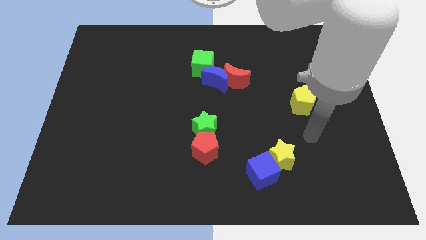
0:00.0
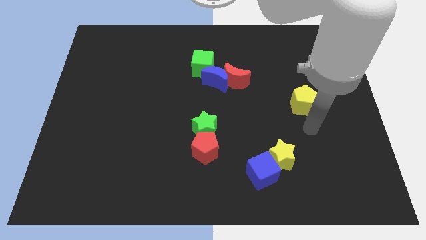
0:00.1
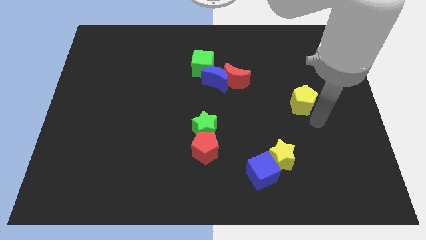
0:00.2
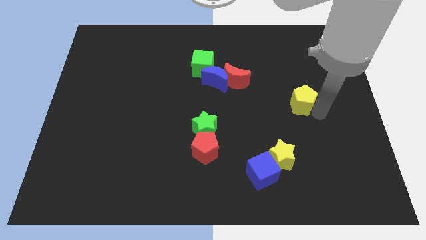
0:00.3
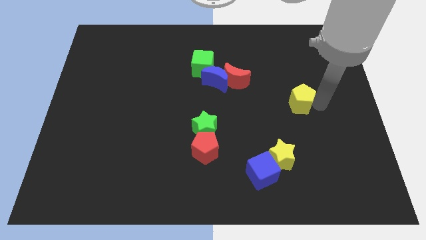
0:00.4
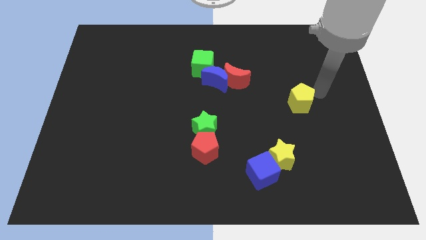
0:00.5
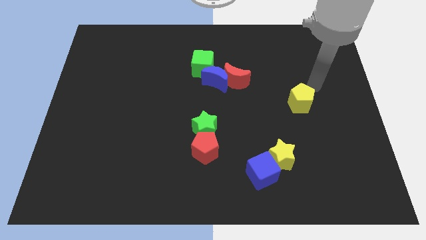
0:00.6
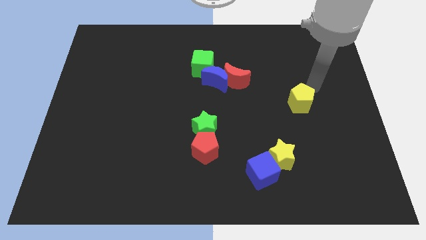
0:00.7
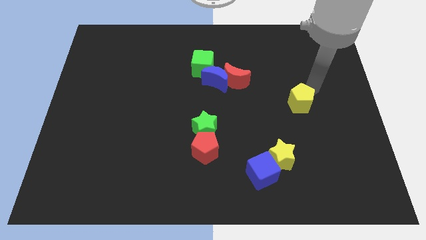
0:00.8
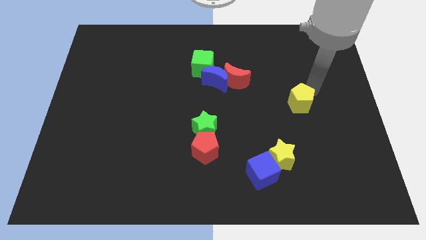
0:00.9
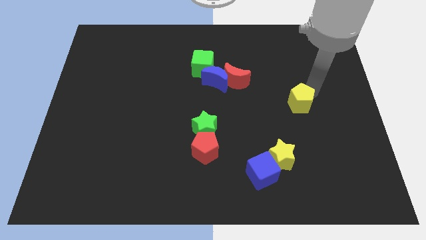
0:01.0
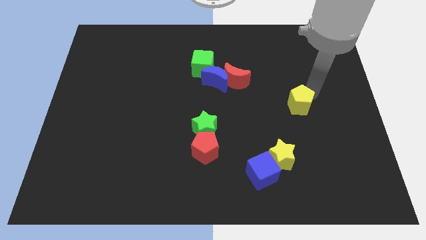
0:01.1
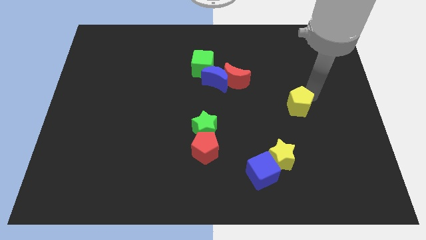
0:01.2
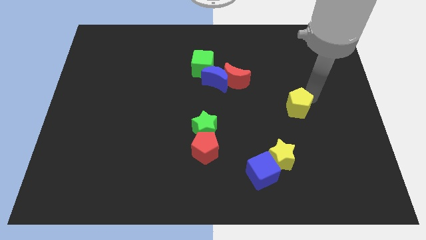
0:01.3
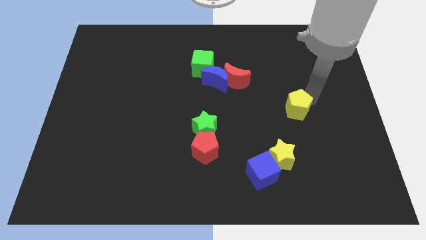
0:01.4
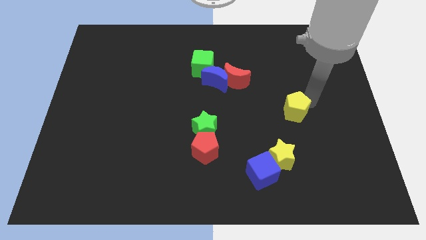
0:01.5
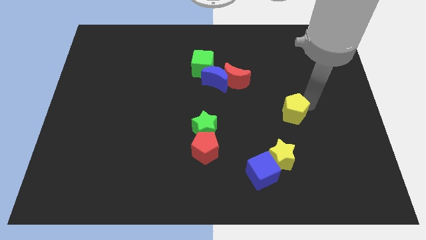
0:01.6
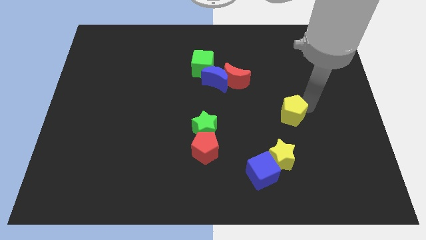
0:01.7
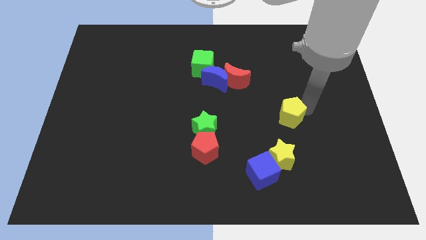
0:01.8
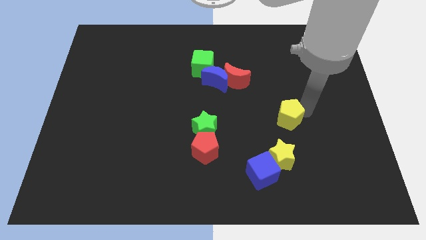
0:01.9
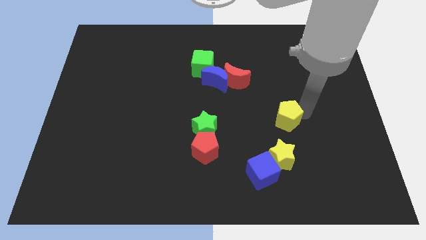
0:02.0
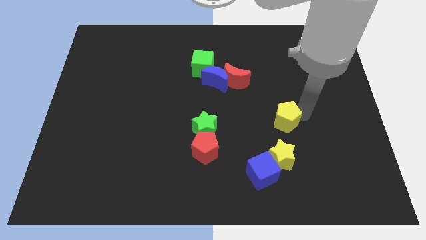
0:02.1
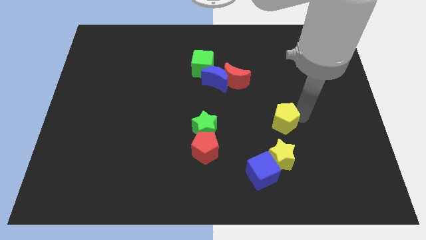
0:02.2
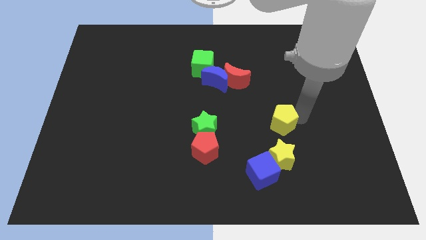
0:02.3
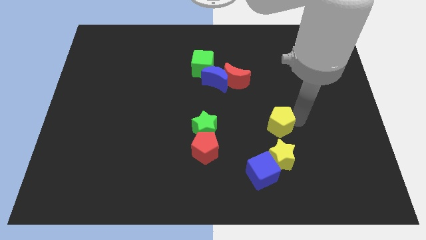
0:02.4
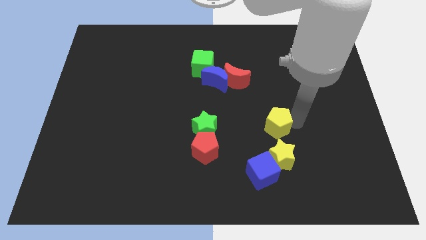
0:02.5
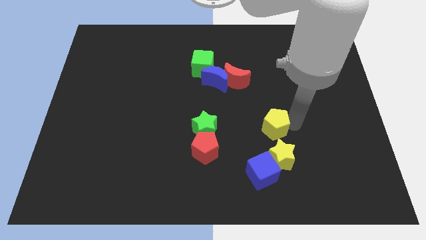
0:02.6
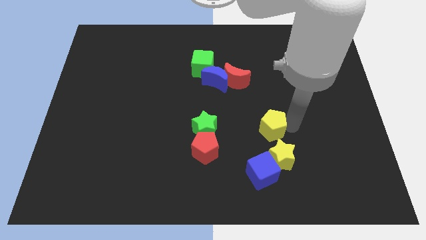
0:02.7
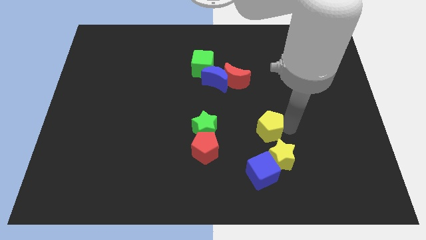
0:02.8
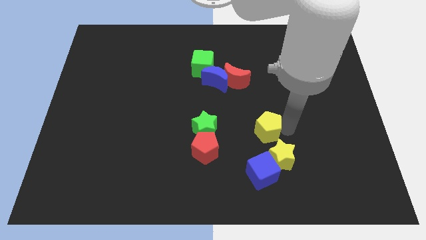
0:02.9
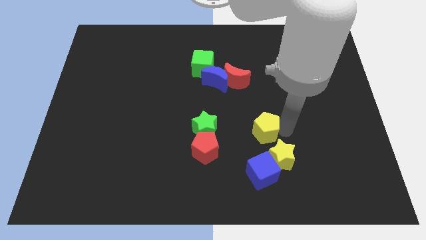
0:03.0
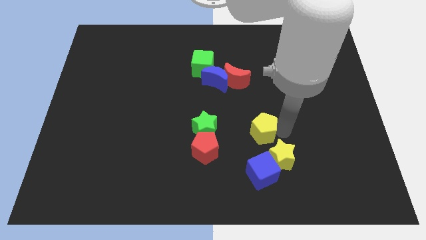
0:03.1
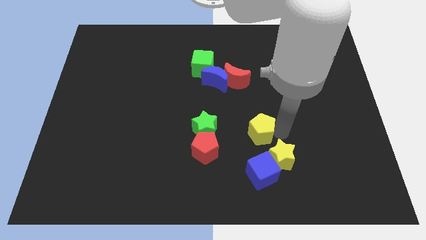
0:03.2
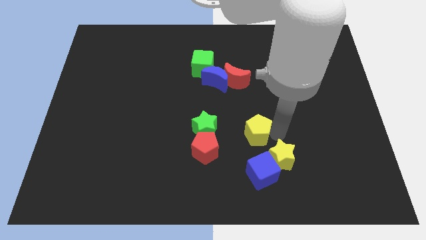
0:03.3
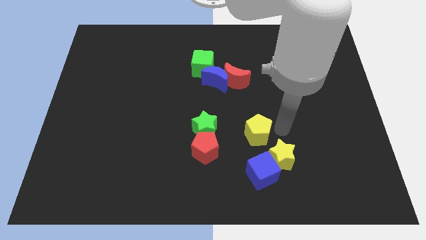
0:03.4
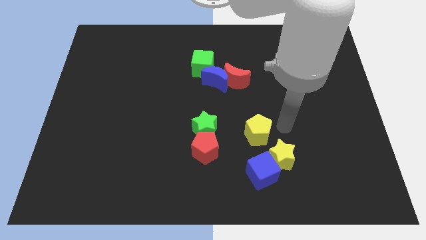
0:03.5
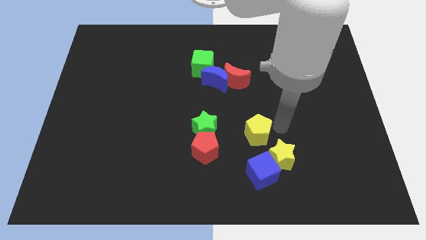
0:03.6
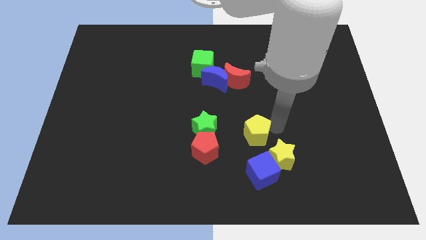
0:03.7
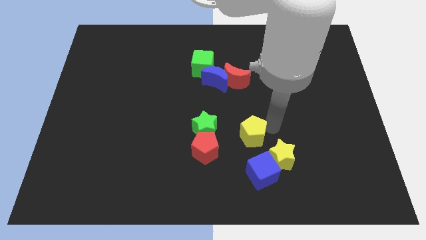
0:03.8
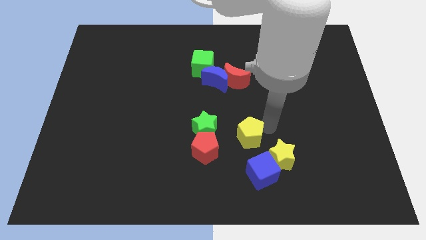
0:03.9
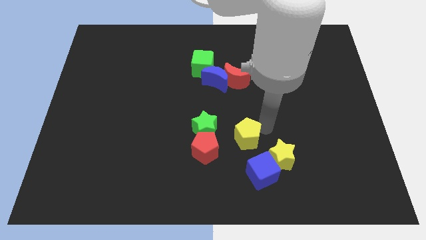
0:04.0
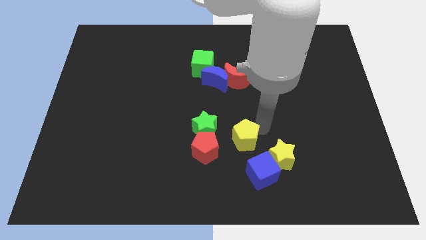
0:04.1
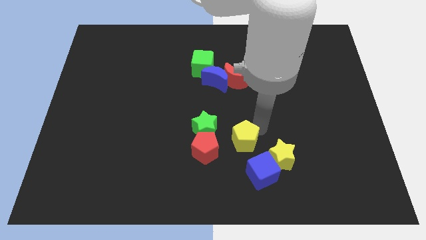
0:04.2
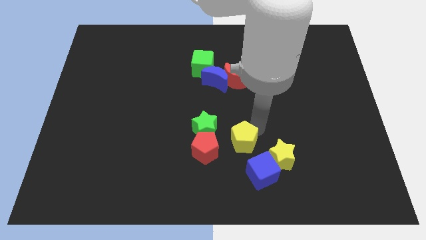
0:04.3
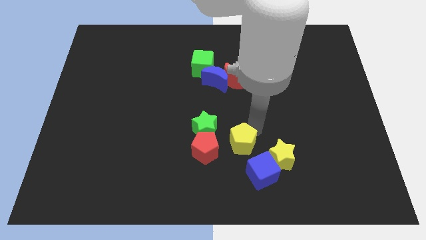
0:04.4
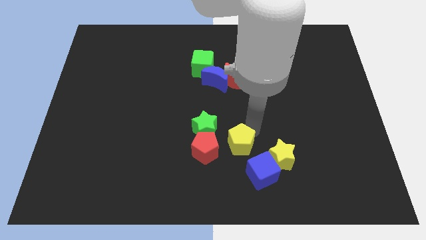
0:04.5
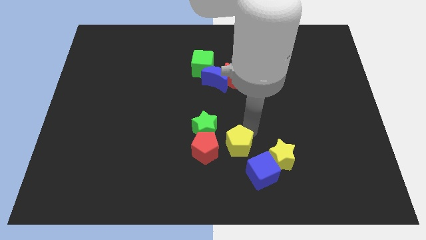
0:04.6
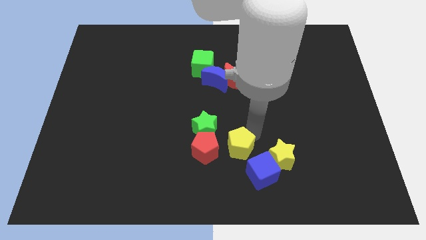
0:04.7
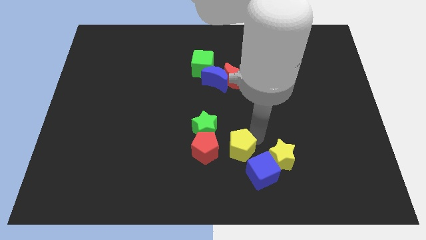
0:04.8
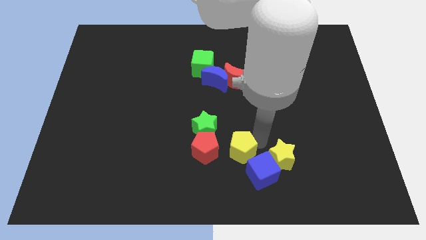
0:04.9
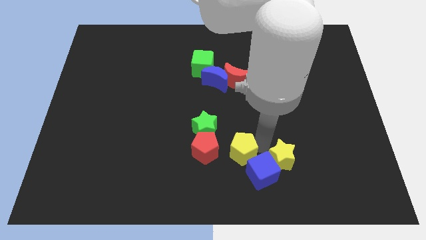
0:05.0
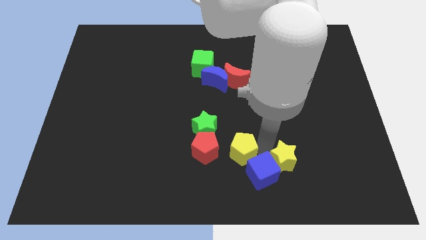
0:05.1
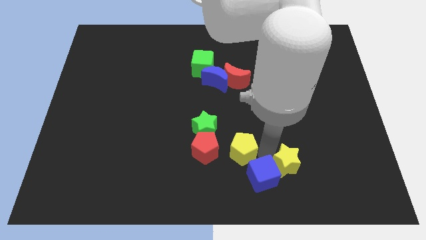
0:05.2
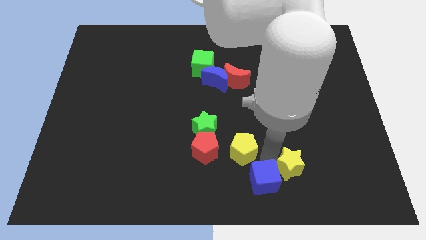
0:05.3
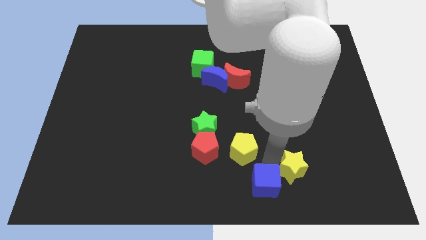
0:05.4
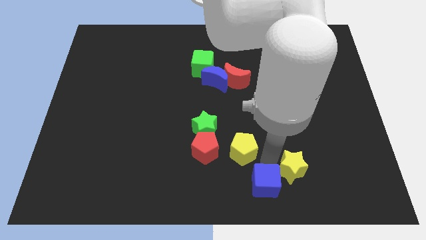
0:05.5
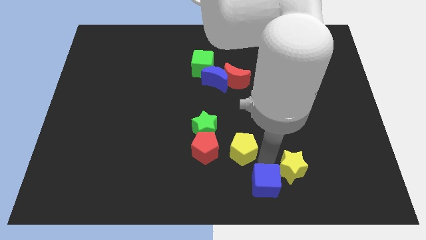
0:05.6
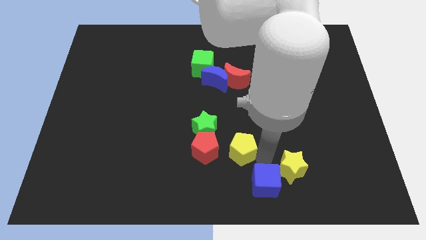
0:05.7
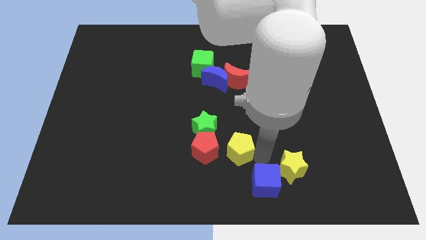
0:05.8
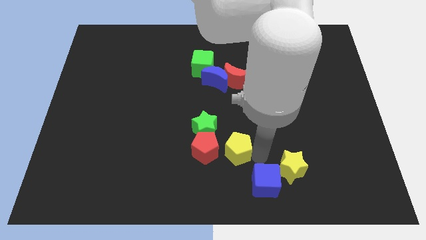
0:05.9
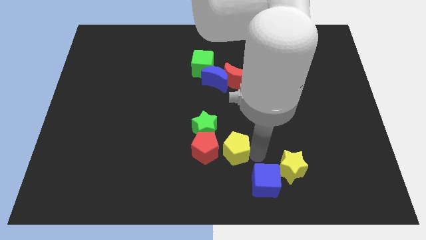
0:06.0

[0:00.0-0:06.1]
put the yellow pentagon towards the red pentagon

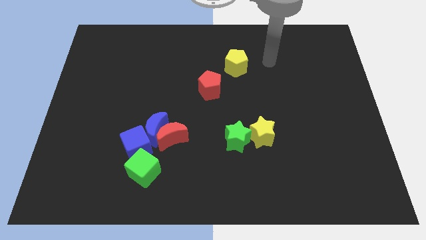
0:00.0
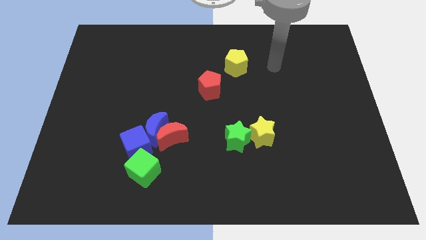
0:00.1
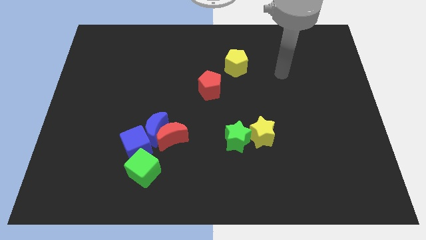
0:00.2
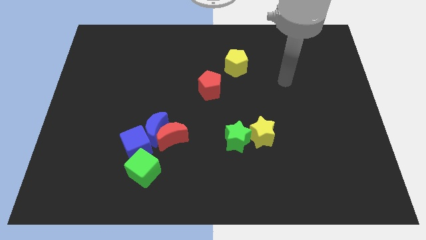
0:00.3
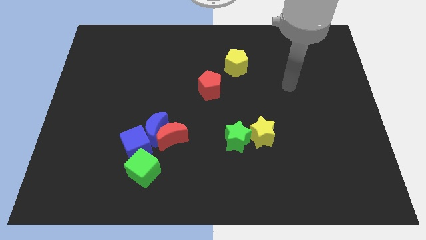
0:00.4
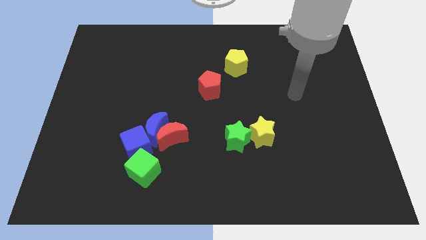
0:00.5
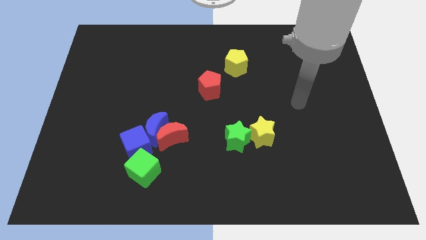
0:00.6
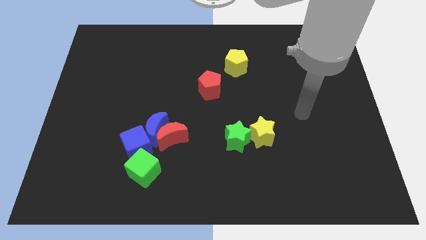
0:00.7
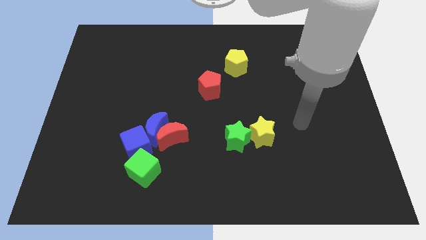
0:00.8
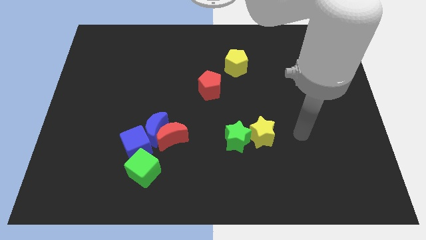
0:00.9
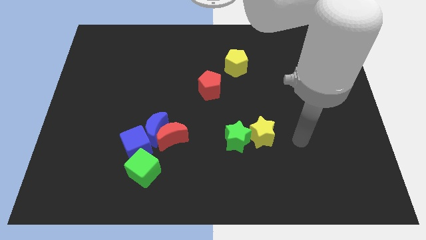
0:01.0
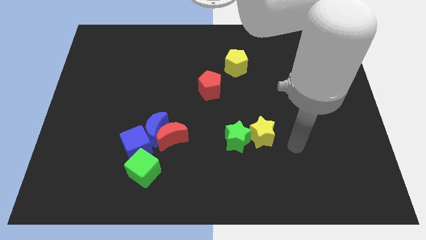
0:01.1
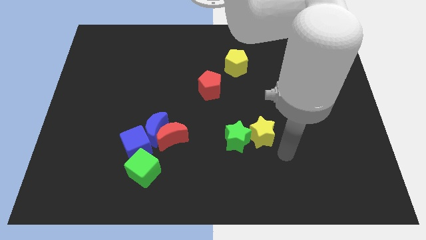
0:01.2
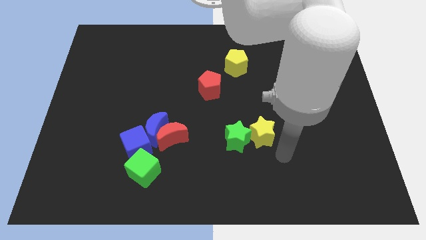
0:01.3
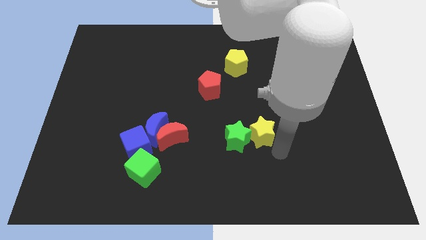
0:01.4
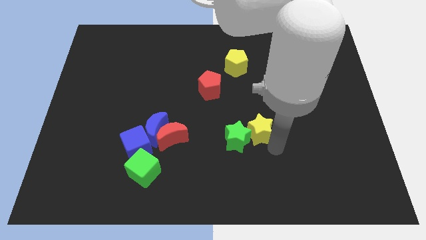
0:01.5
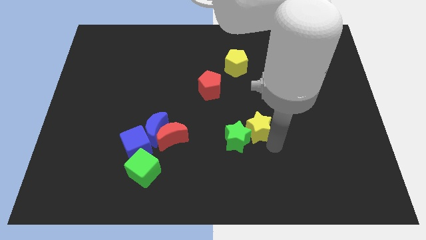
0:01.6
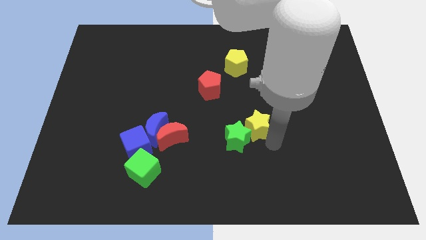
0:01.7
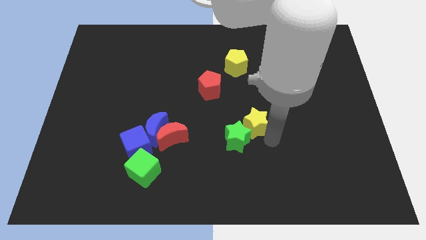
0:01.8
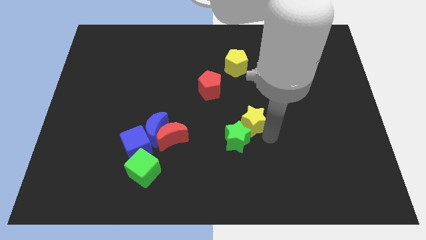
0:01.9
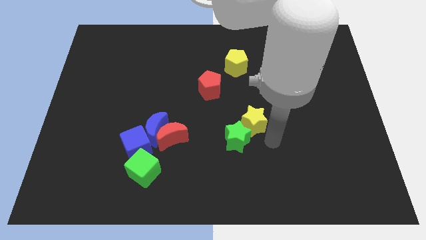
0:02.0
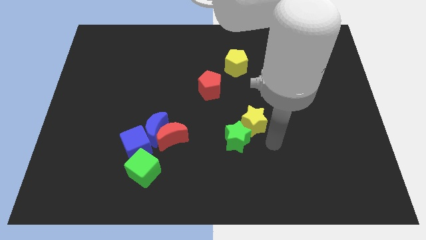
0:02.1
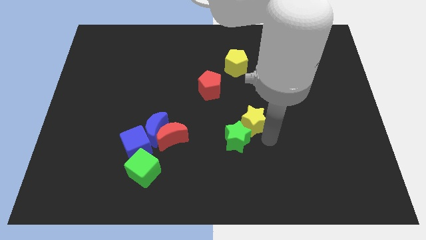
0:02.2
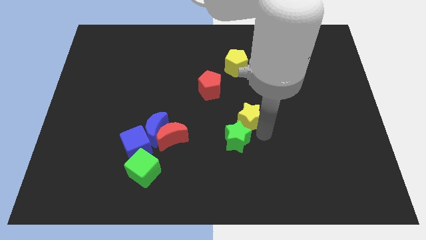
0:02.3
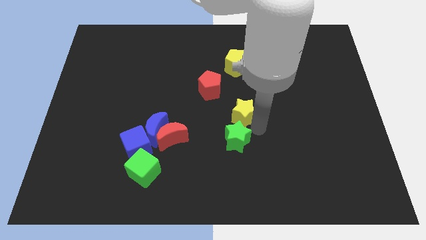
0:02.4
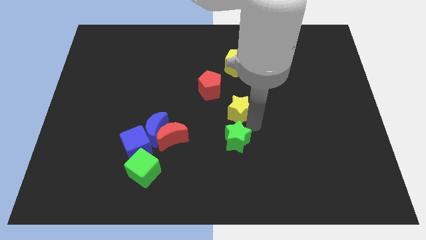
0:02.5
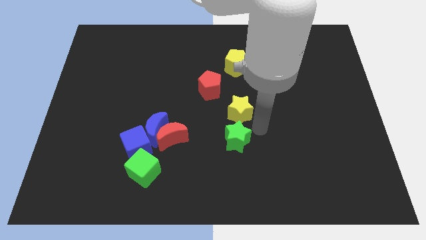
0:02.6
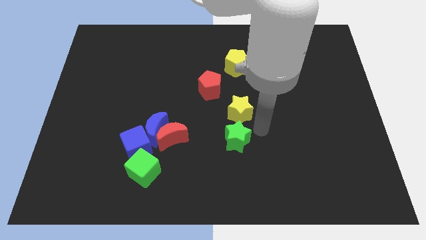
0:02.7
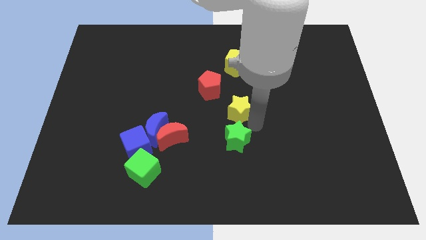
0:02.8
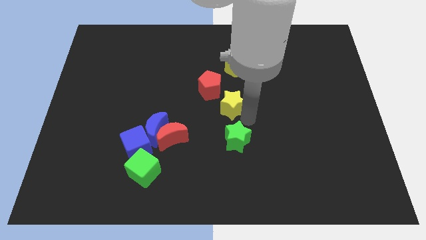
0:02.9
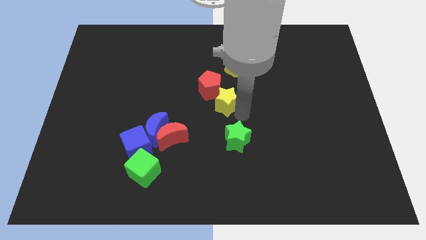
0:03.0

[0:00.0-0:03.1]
put the yellow star next to the red pentagon
